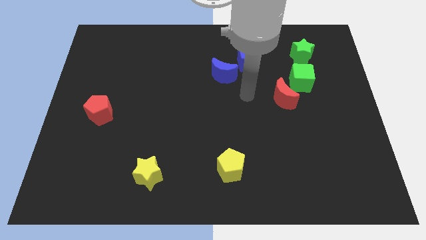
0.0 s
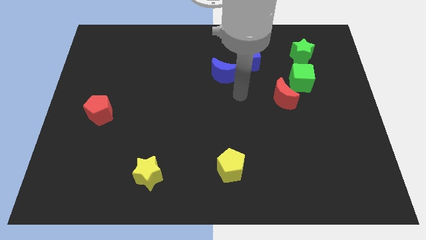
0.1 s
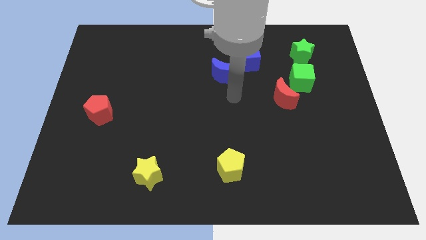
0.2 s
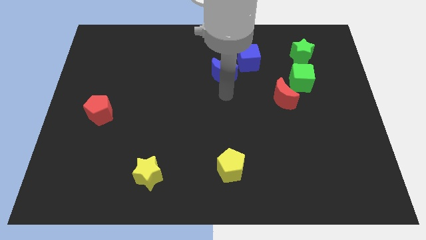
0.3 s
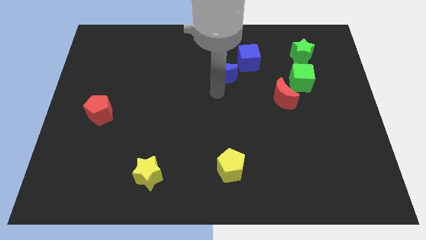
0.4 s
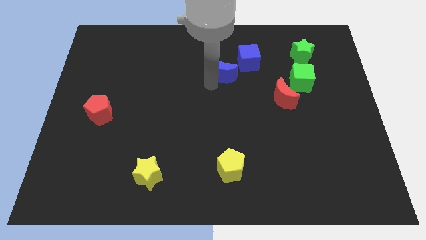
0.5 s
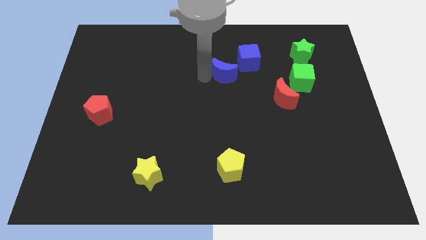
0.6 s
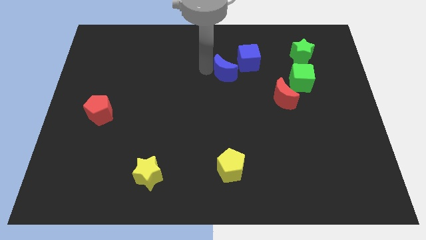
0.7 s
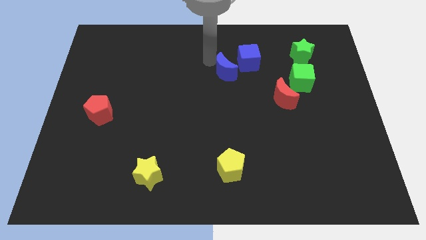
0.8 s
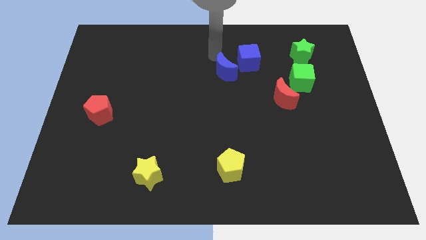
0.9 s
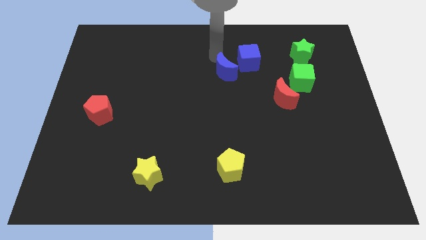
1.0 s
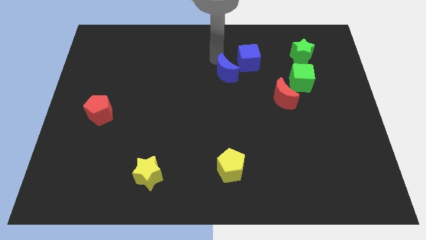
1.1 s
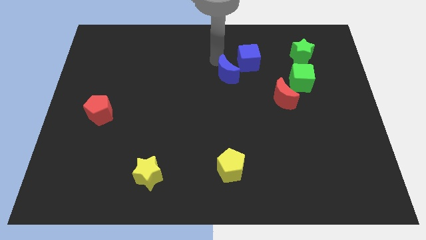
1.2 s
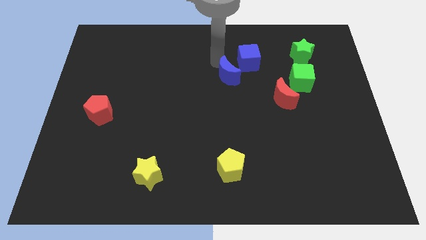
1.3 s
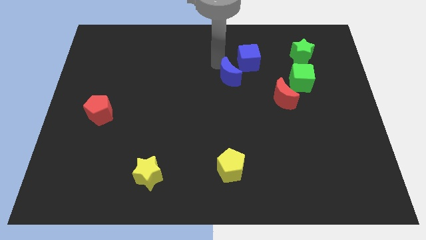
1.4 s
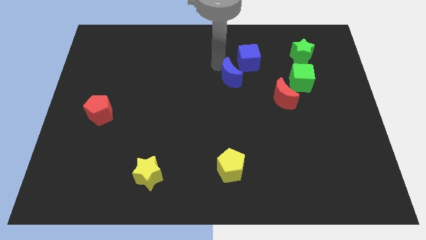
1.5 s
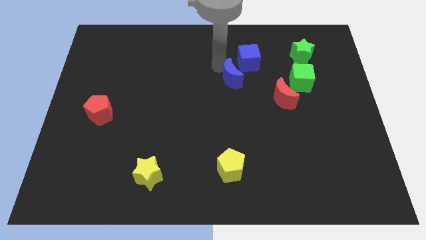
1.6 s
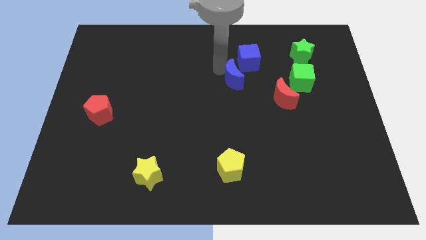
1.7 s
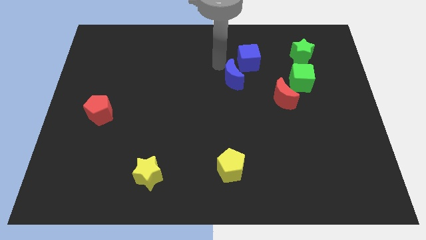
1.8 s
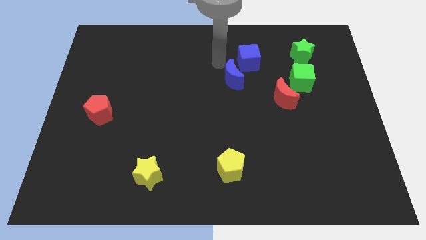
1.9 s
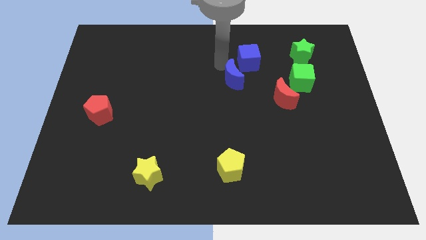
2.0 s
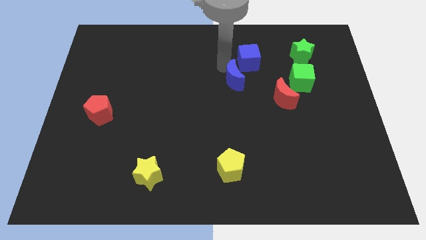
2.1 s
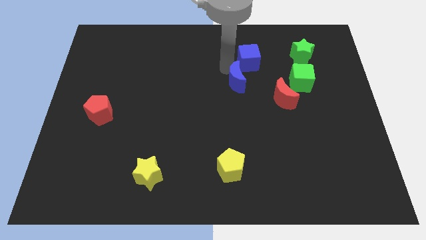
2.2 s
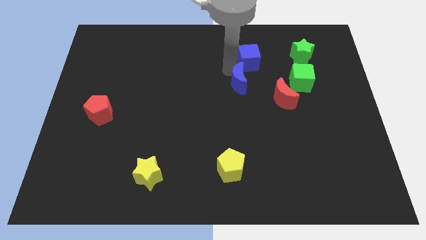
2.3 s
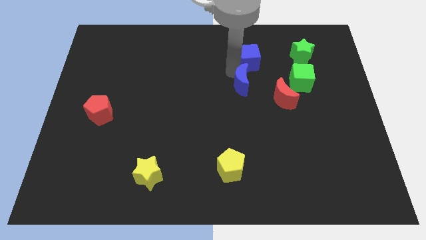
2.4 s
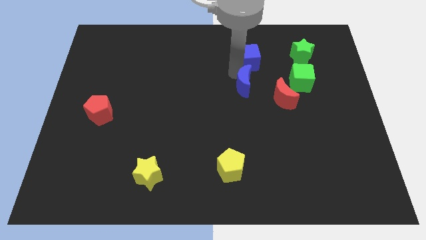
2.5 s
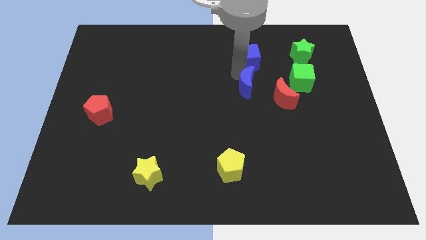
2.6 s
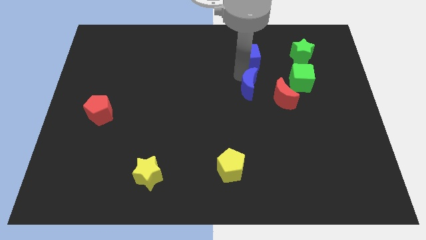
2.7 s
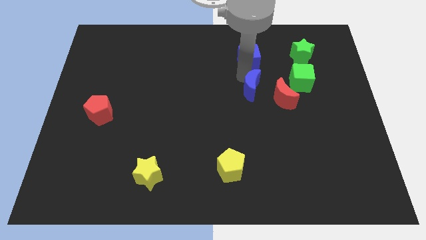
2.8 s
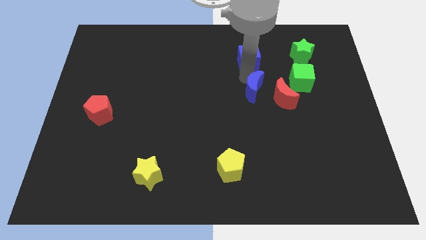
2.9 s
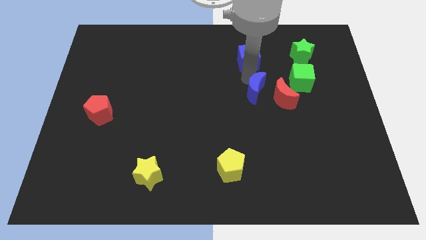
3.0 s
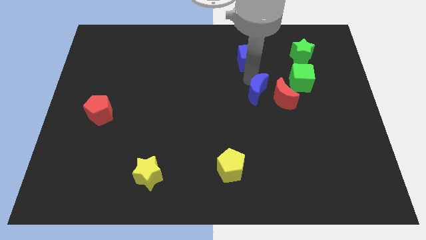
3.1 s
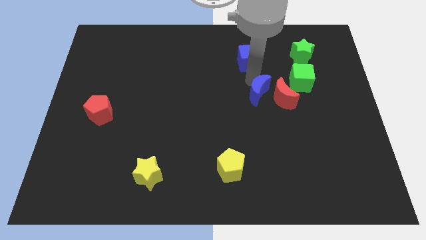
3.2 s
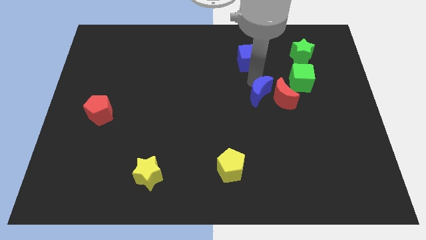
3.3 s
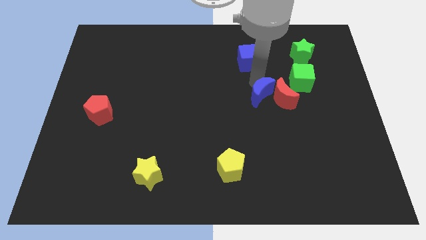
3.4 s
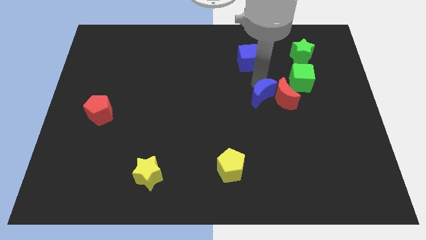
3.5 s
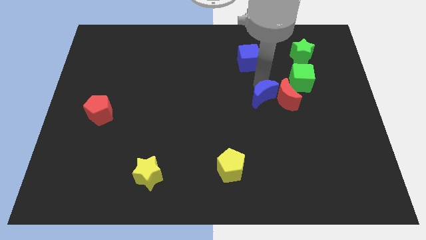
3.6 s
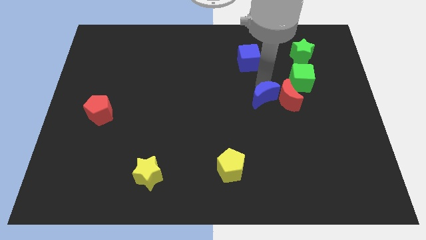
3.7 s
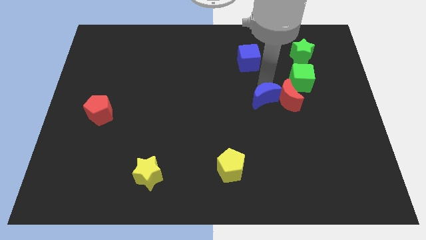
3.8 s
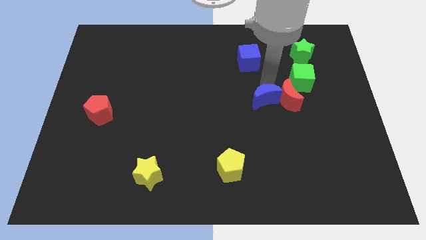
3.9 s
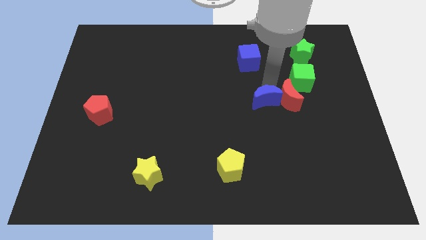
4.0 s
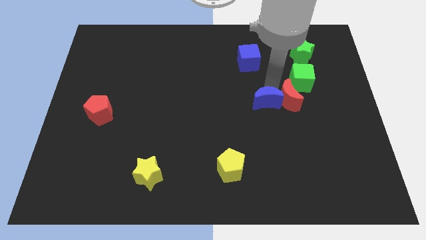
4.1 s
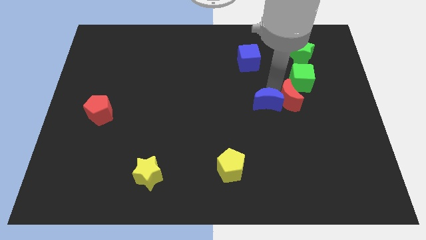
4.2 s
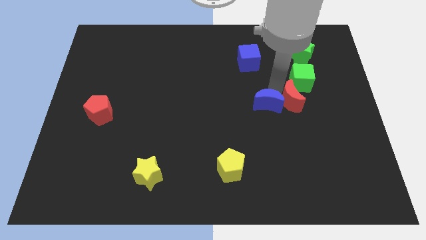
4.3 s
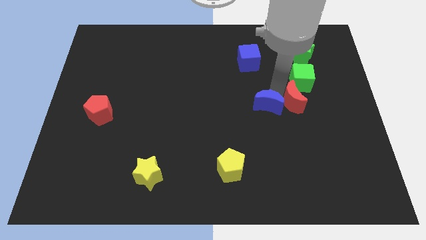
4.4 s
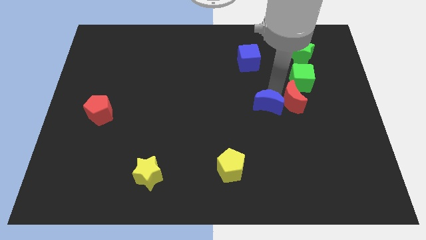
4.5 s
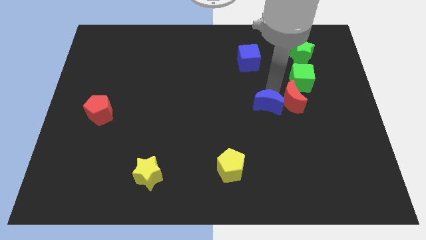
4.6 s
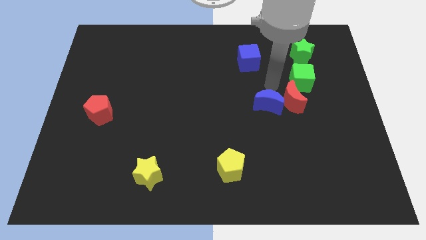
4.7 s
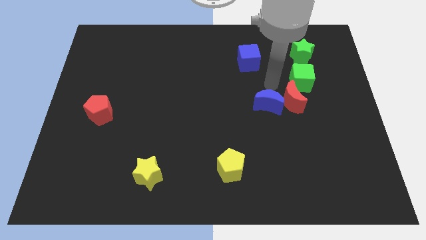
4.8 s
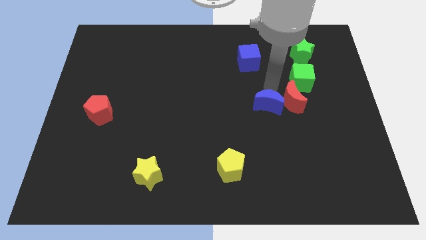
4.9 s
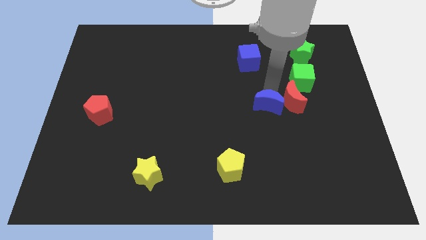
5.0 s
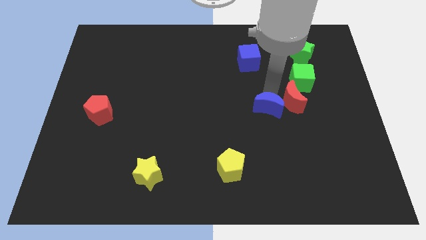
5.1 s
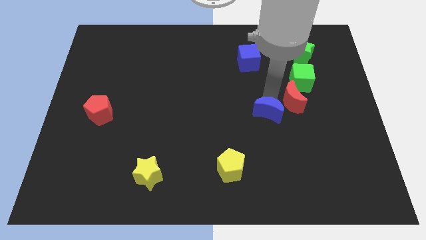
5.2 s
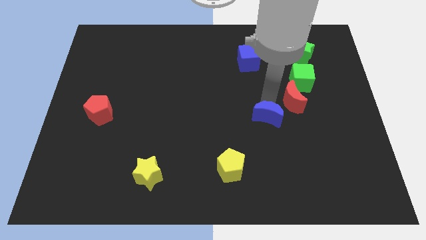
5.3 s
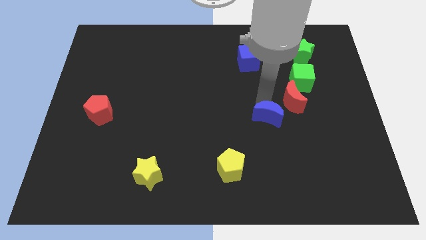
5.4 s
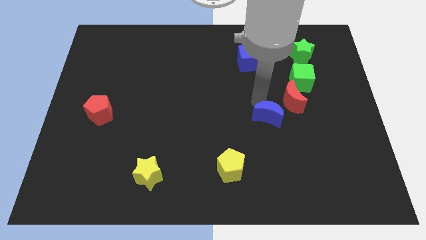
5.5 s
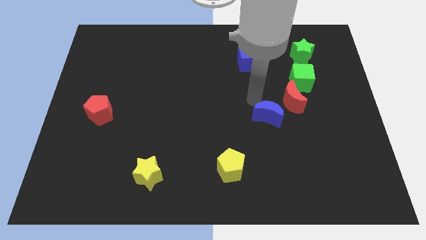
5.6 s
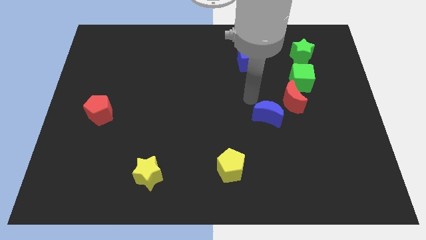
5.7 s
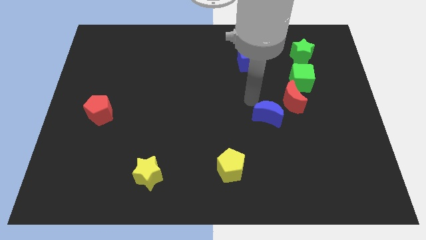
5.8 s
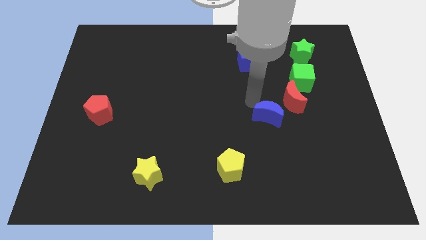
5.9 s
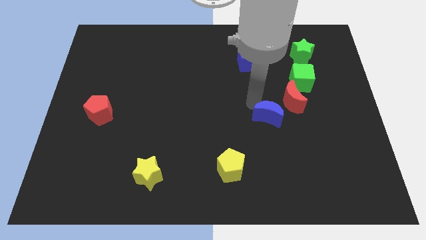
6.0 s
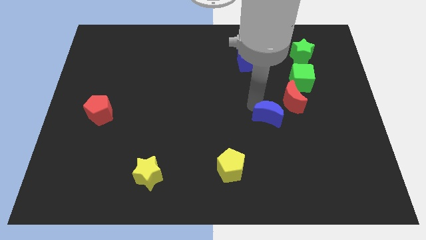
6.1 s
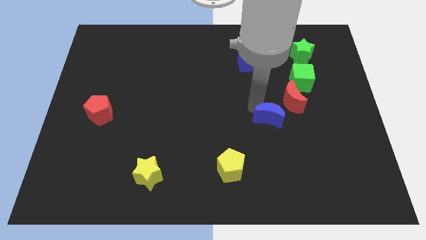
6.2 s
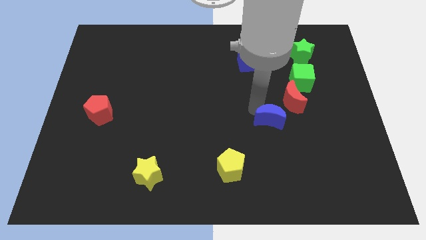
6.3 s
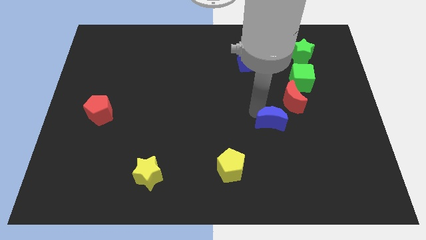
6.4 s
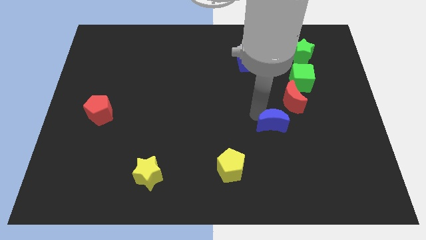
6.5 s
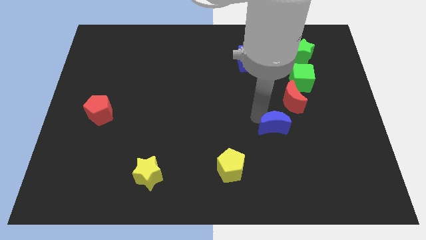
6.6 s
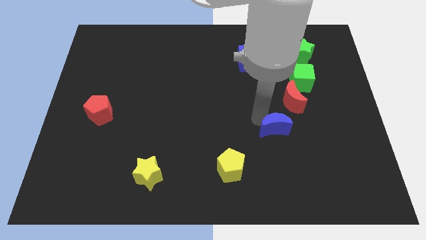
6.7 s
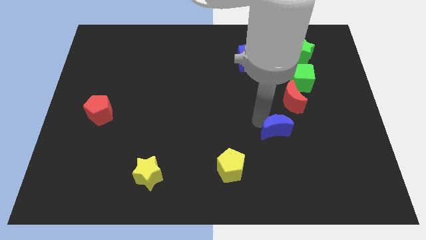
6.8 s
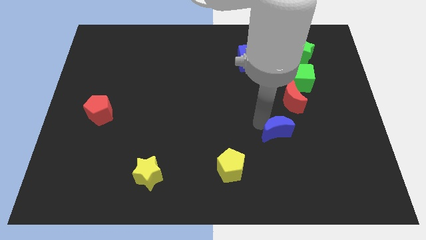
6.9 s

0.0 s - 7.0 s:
slide the blue moon diagonally downwards and right

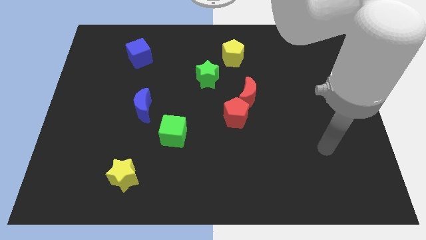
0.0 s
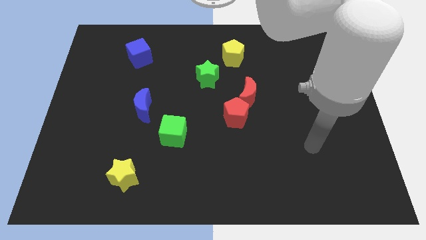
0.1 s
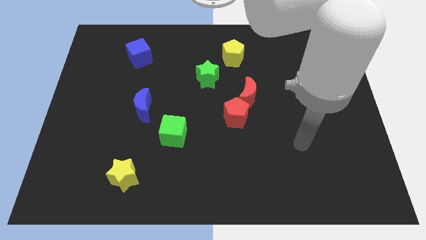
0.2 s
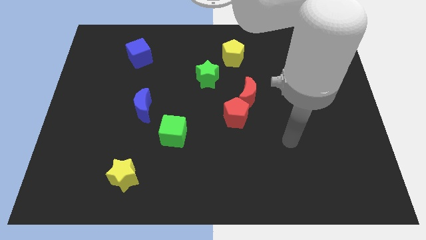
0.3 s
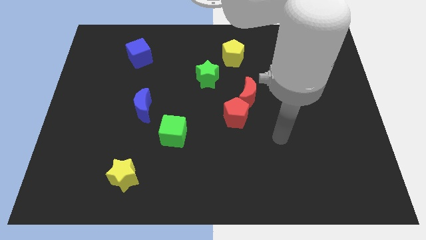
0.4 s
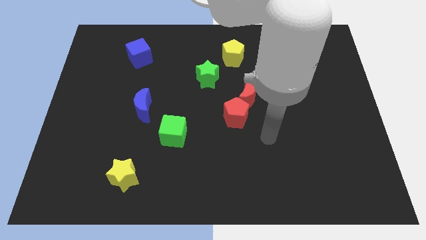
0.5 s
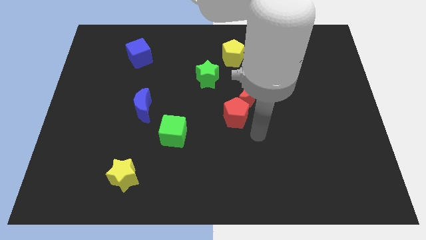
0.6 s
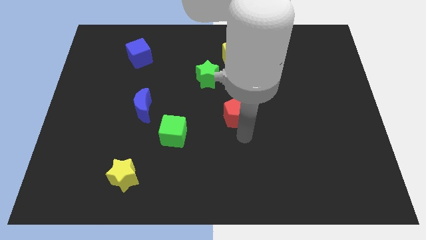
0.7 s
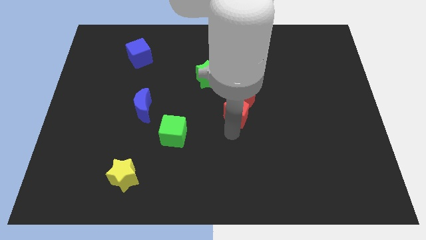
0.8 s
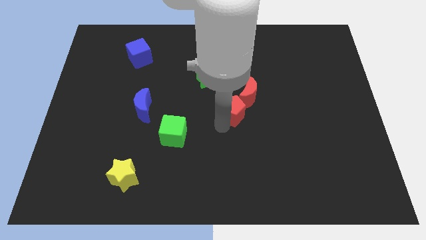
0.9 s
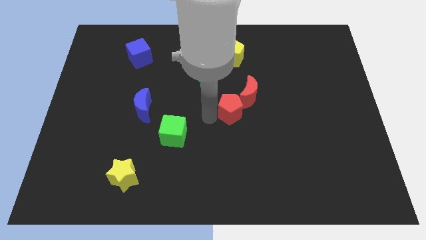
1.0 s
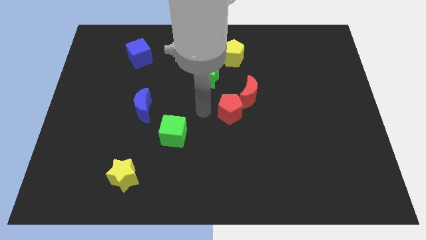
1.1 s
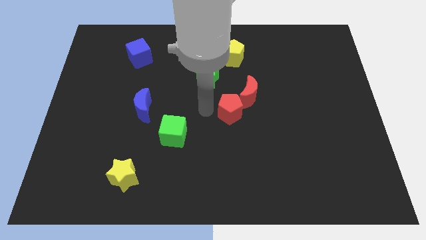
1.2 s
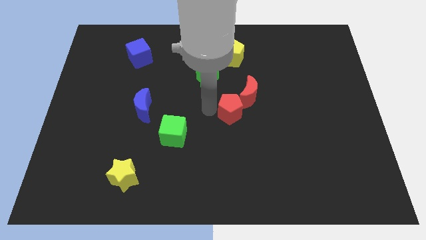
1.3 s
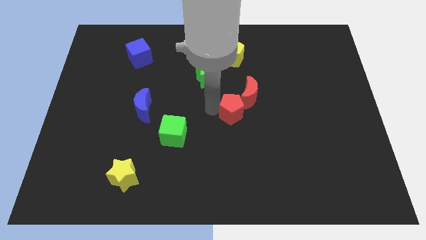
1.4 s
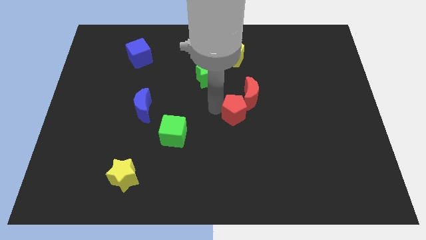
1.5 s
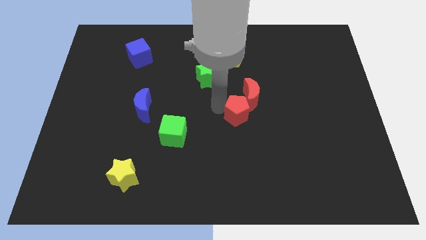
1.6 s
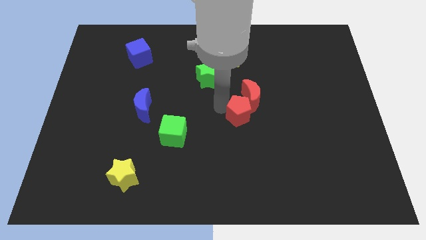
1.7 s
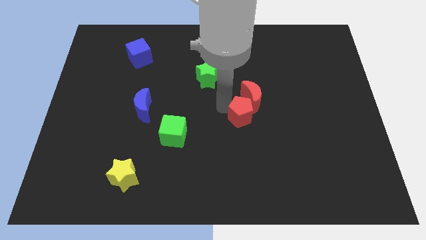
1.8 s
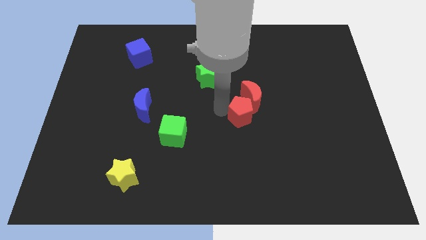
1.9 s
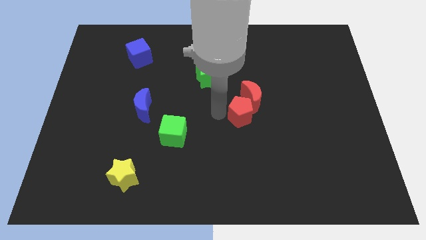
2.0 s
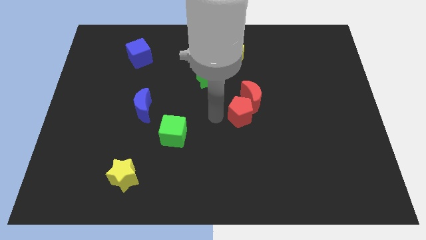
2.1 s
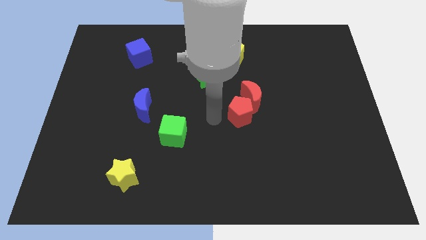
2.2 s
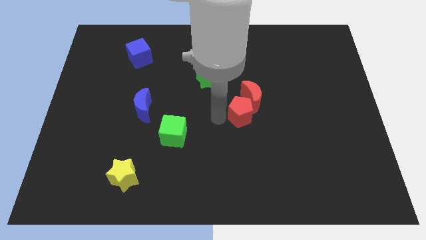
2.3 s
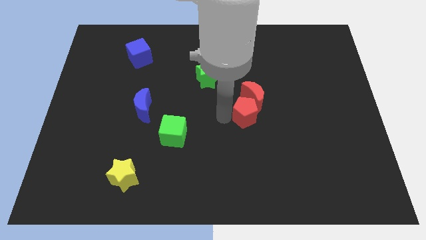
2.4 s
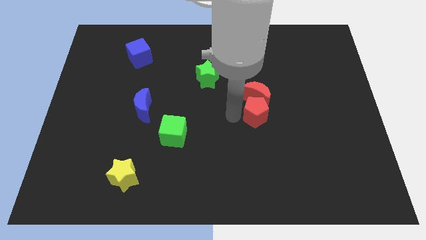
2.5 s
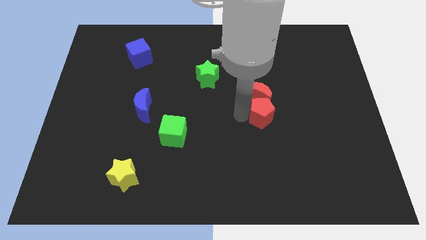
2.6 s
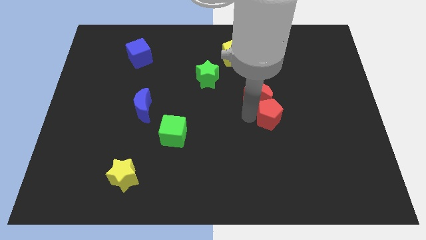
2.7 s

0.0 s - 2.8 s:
slide the red pentagon slightly right
